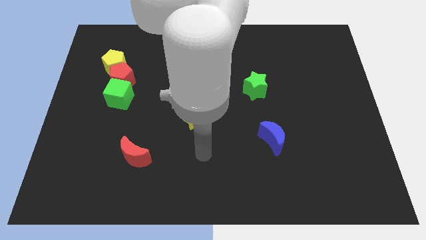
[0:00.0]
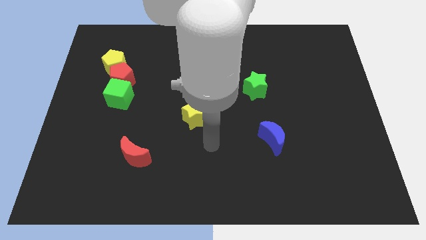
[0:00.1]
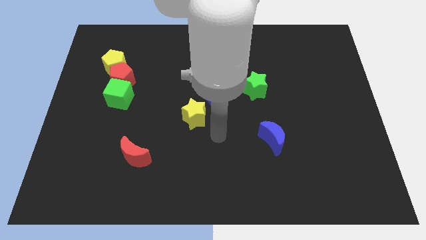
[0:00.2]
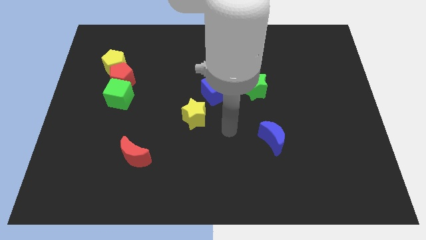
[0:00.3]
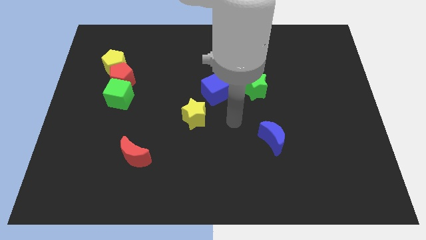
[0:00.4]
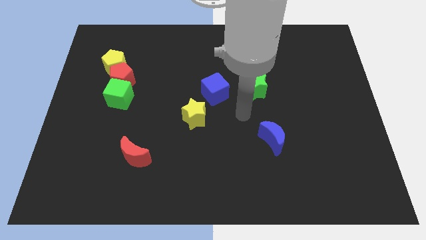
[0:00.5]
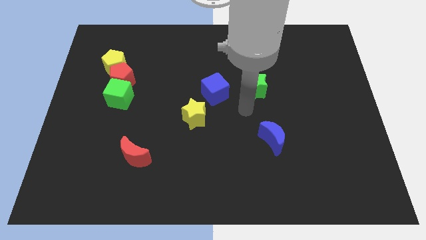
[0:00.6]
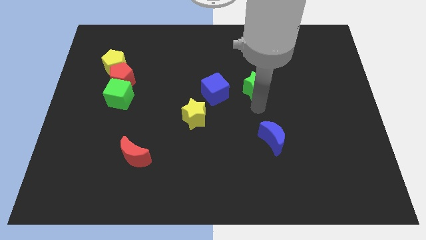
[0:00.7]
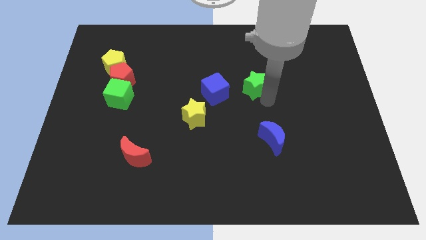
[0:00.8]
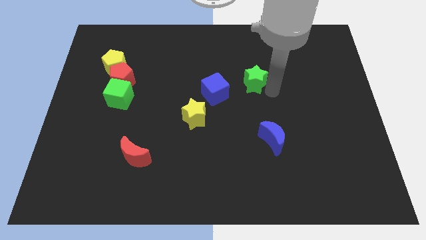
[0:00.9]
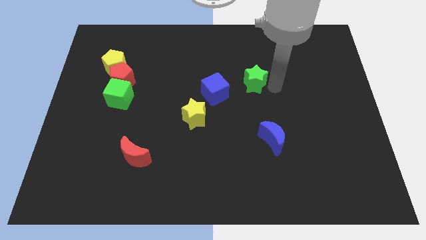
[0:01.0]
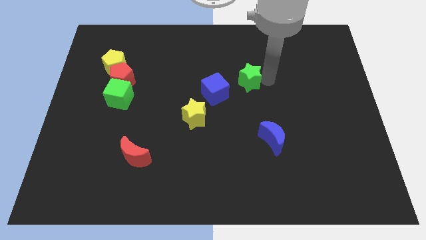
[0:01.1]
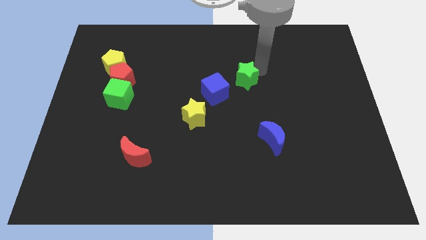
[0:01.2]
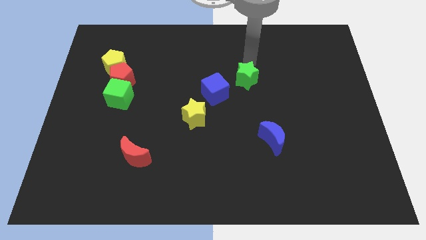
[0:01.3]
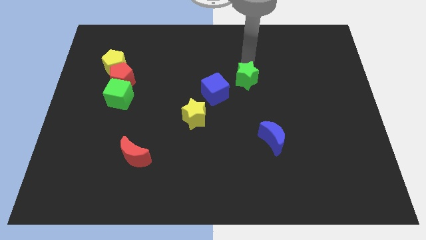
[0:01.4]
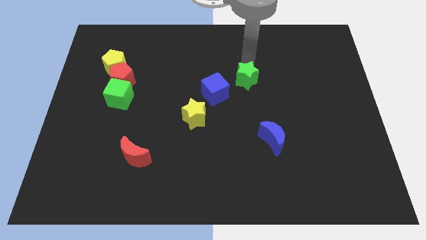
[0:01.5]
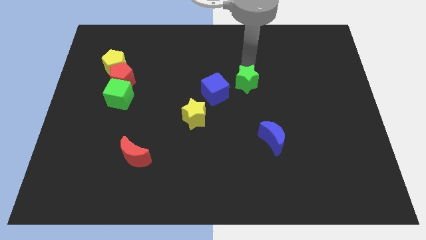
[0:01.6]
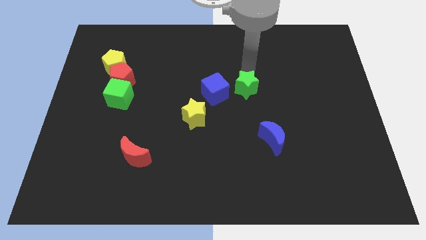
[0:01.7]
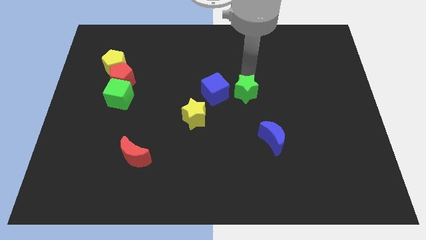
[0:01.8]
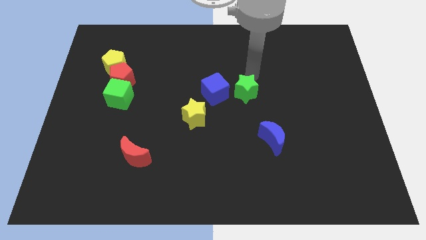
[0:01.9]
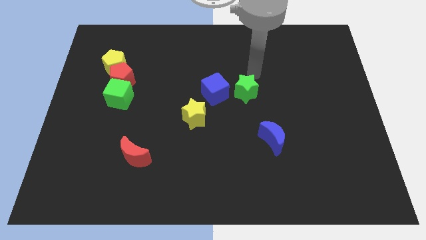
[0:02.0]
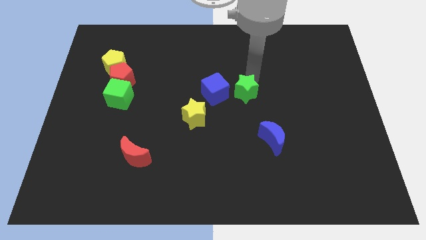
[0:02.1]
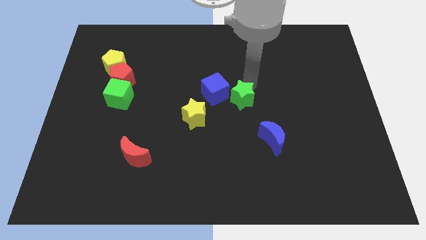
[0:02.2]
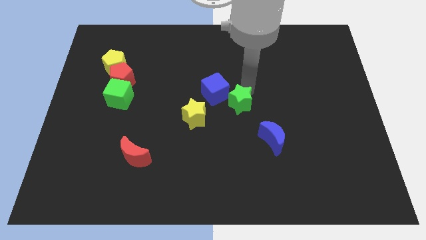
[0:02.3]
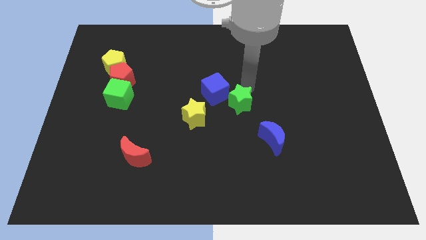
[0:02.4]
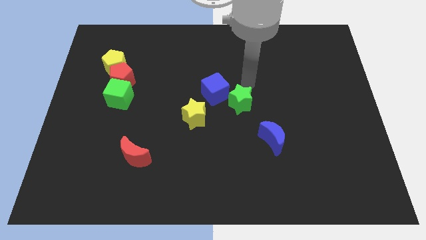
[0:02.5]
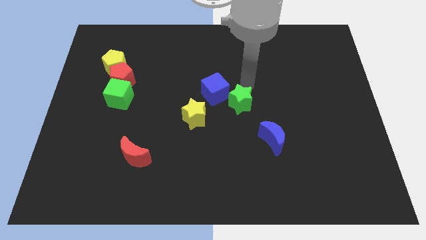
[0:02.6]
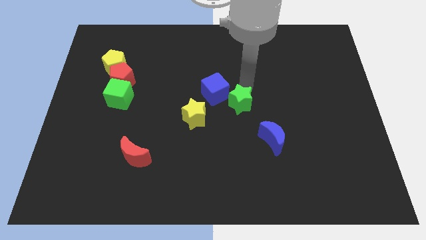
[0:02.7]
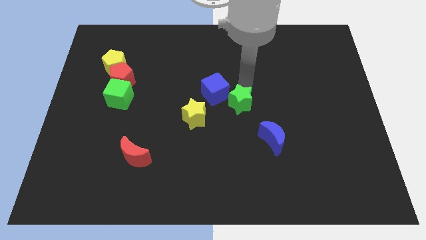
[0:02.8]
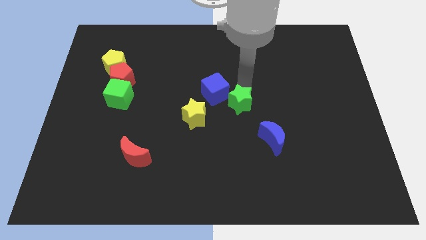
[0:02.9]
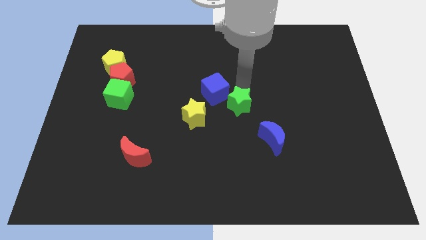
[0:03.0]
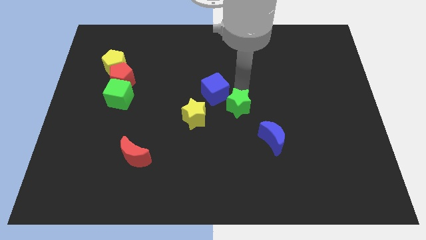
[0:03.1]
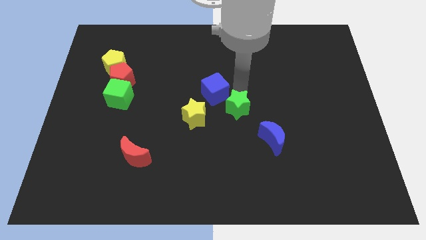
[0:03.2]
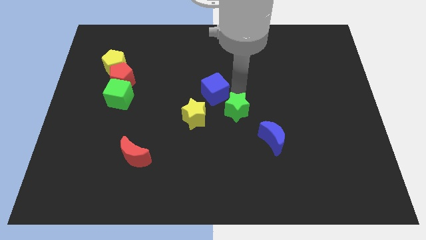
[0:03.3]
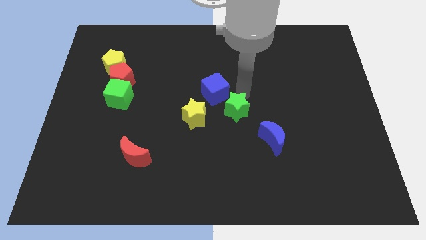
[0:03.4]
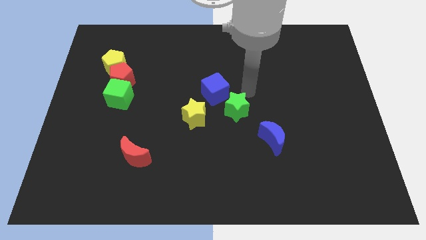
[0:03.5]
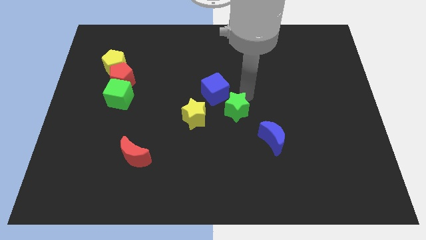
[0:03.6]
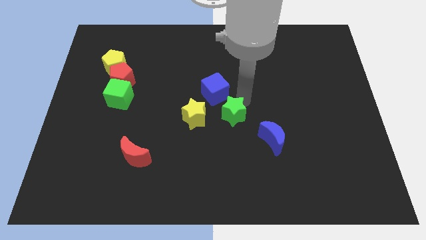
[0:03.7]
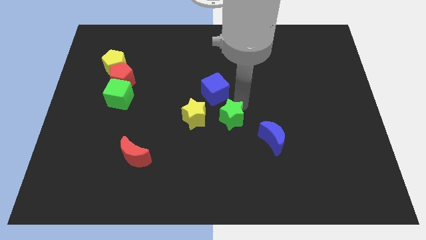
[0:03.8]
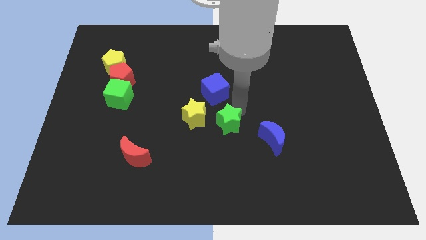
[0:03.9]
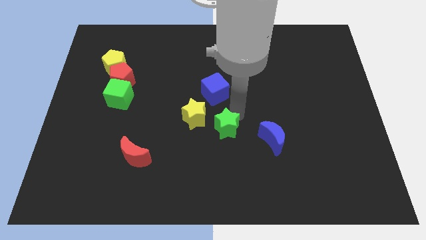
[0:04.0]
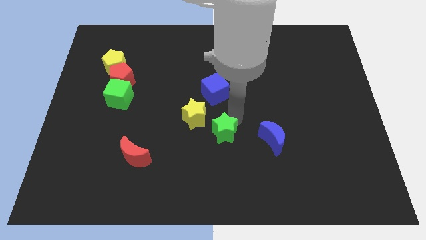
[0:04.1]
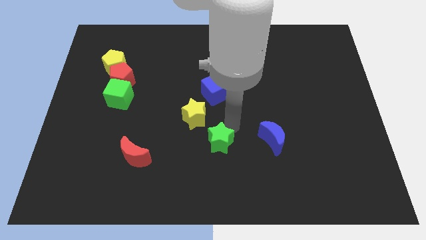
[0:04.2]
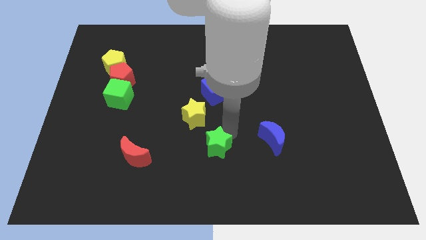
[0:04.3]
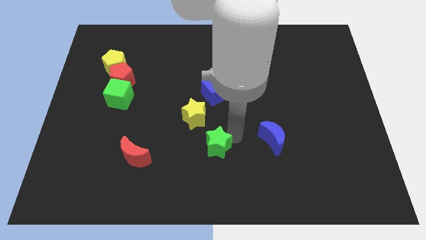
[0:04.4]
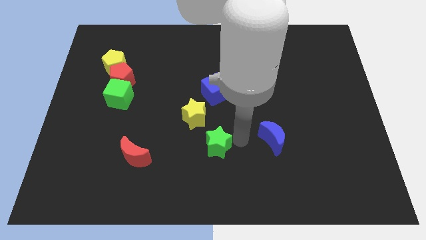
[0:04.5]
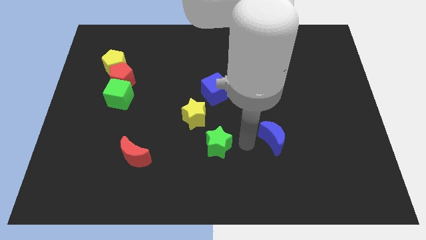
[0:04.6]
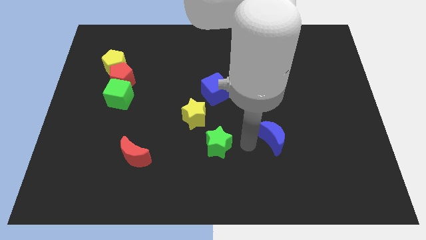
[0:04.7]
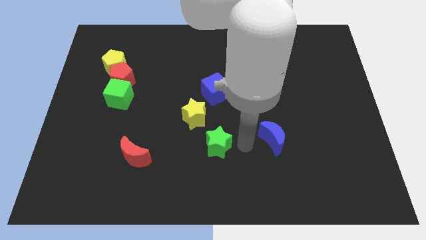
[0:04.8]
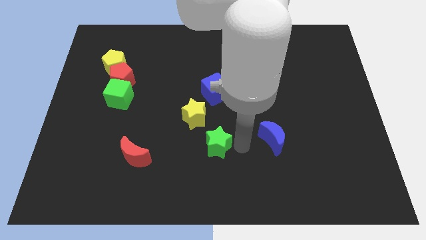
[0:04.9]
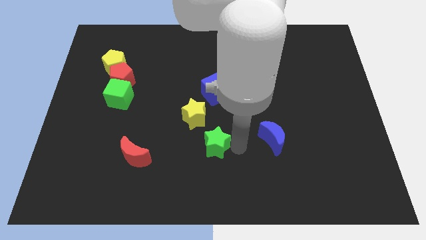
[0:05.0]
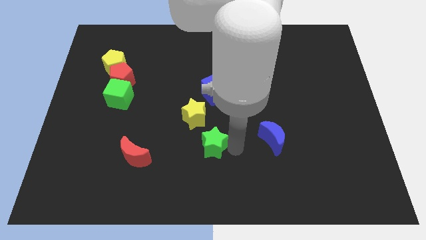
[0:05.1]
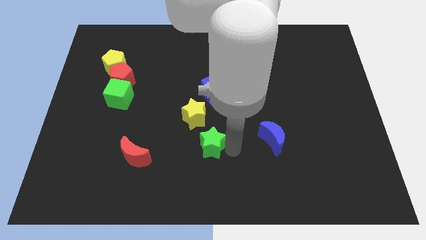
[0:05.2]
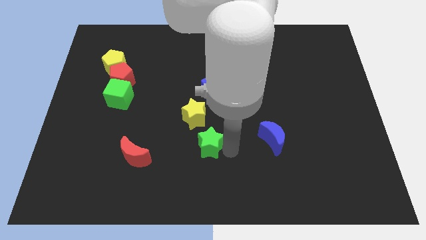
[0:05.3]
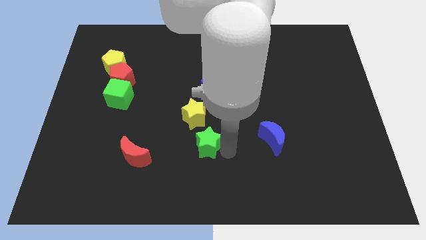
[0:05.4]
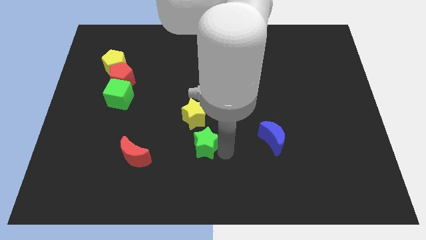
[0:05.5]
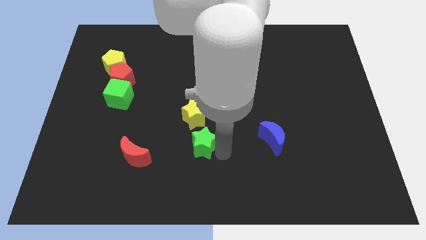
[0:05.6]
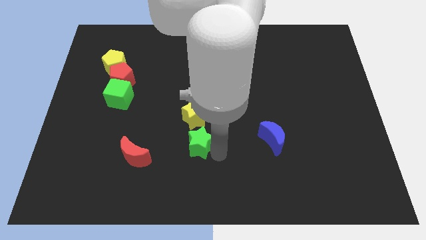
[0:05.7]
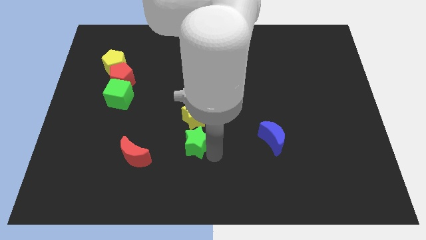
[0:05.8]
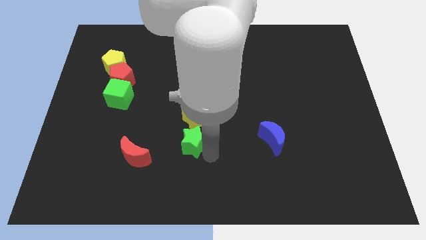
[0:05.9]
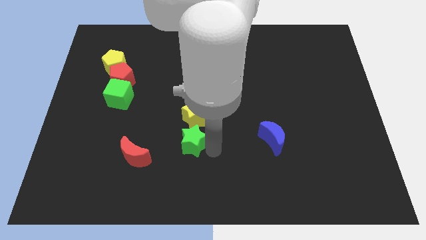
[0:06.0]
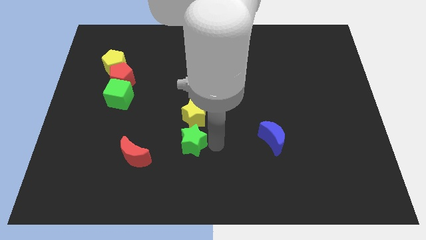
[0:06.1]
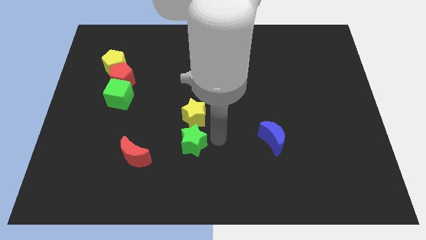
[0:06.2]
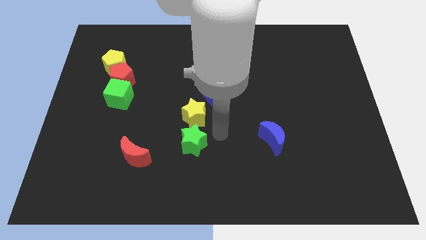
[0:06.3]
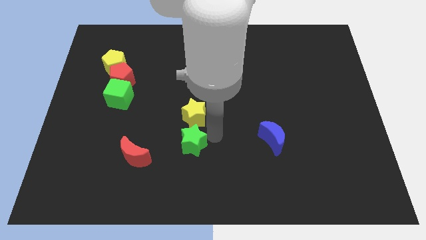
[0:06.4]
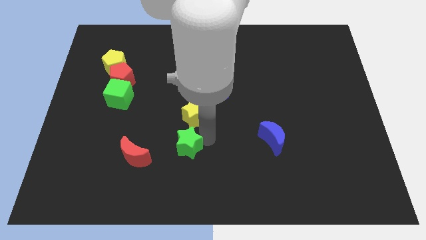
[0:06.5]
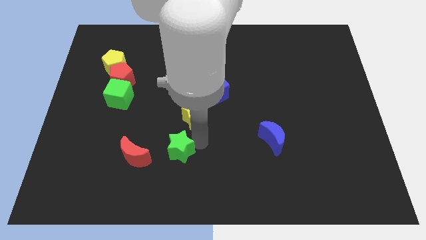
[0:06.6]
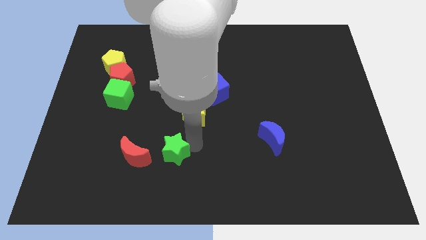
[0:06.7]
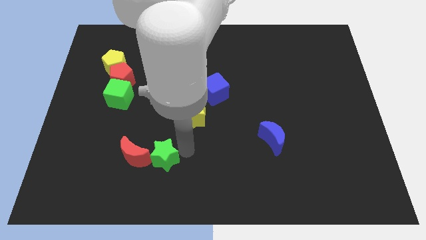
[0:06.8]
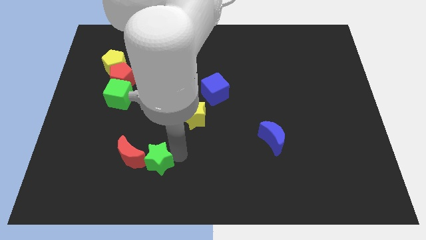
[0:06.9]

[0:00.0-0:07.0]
push the green star towards the red moon

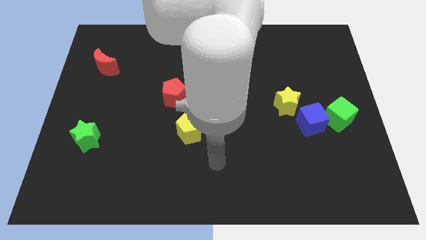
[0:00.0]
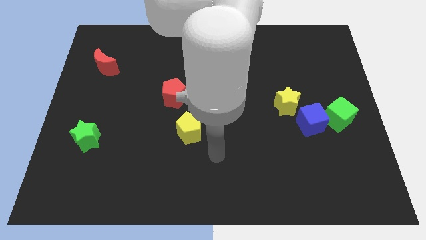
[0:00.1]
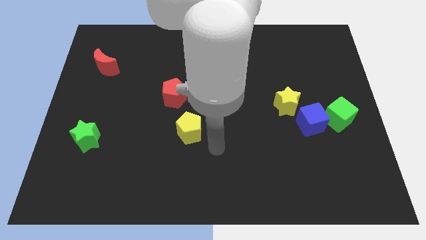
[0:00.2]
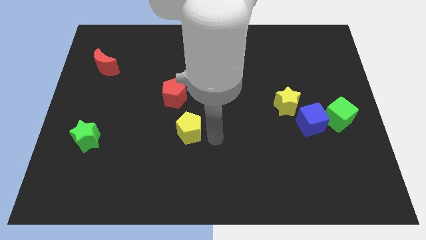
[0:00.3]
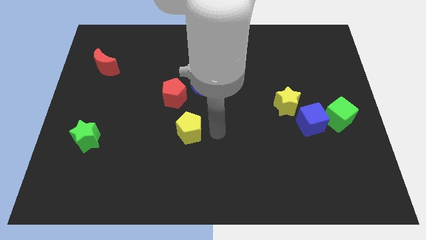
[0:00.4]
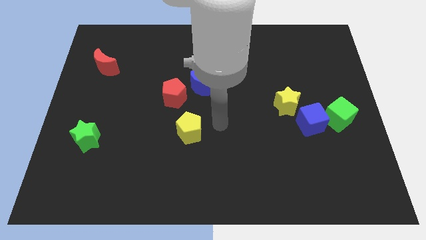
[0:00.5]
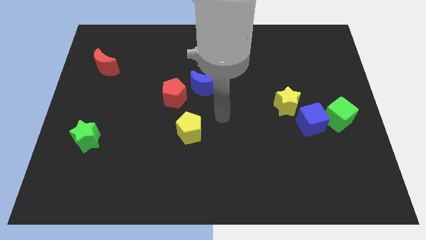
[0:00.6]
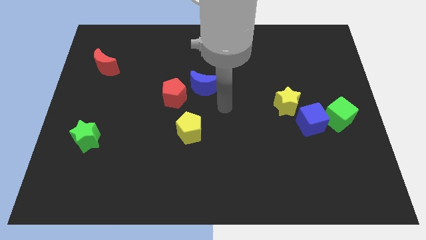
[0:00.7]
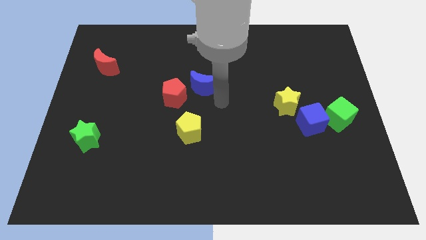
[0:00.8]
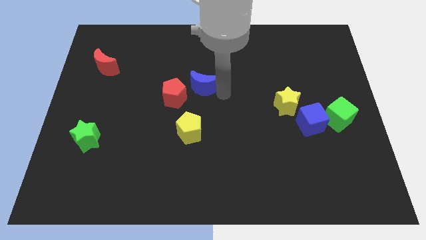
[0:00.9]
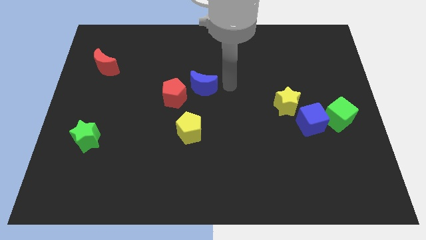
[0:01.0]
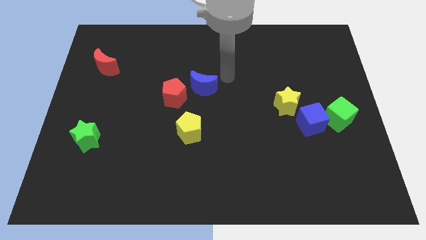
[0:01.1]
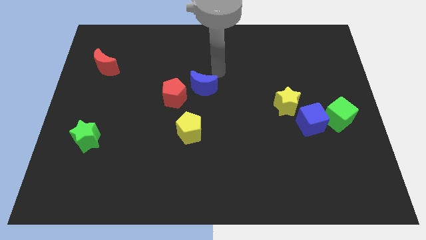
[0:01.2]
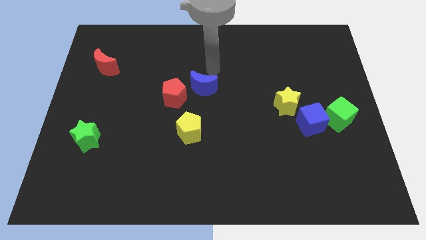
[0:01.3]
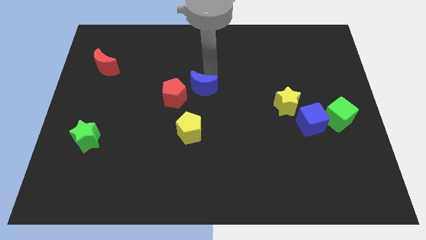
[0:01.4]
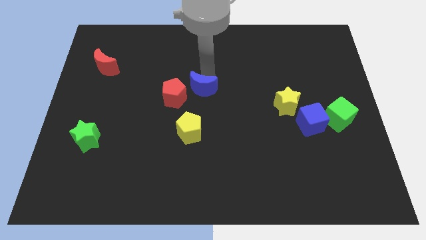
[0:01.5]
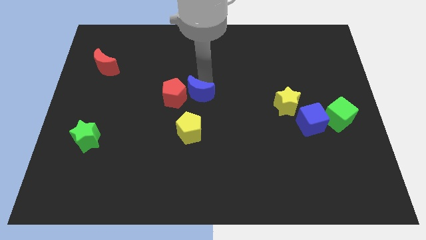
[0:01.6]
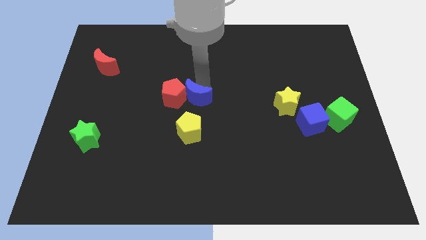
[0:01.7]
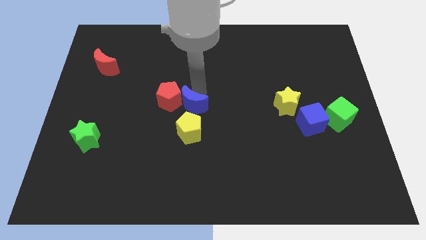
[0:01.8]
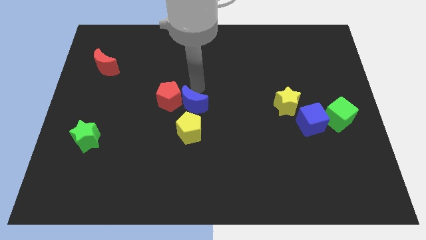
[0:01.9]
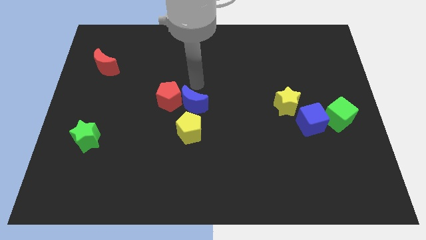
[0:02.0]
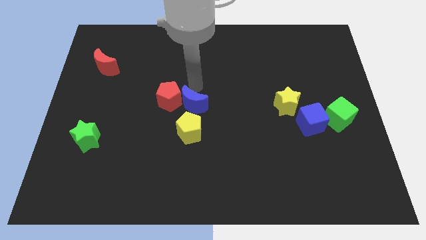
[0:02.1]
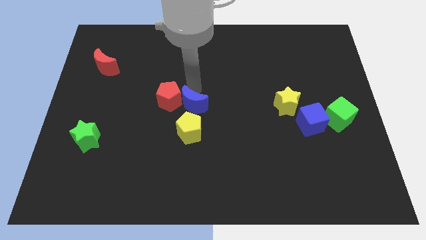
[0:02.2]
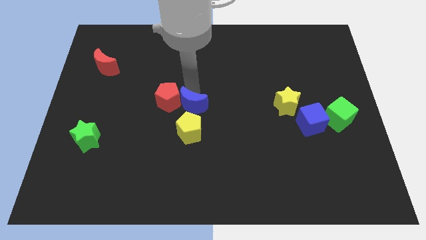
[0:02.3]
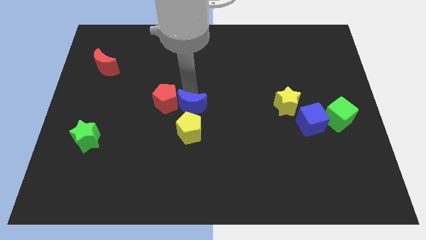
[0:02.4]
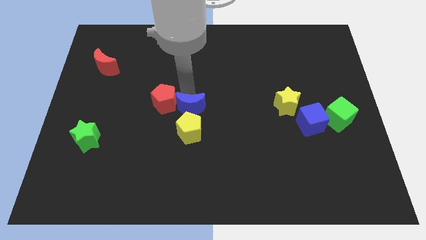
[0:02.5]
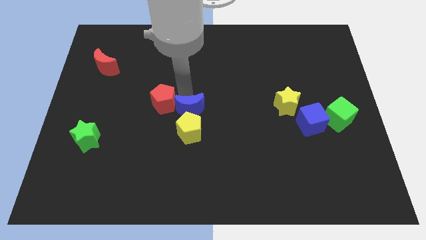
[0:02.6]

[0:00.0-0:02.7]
move the blue moon to the yellow pentagon
